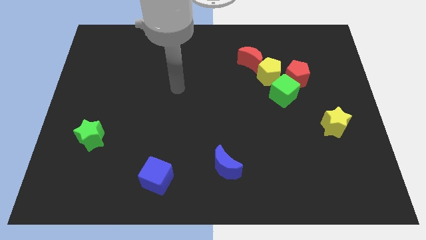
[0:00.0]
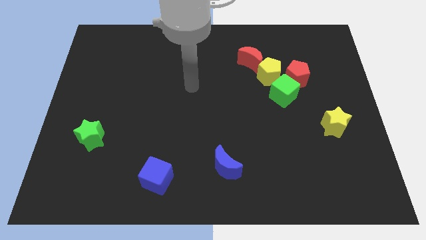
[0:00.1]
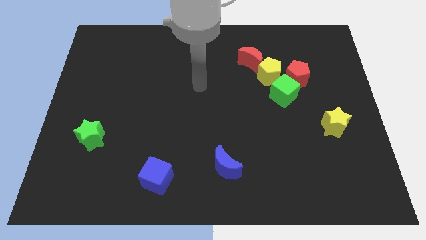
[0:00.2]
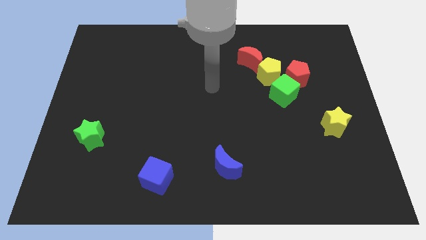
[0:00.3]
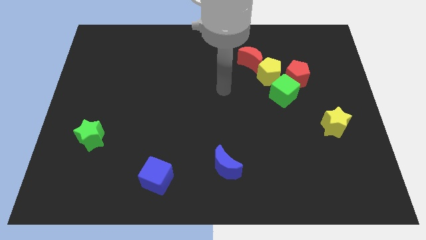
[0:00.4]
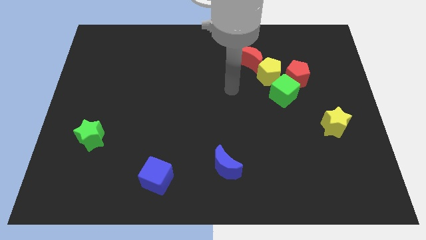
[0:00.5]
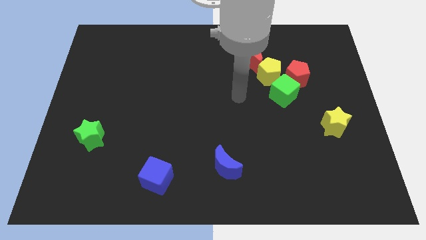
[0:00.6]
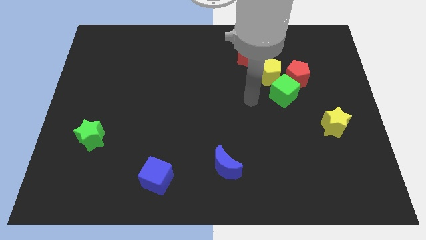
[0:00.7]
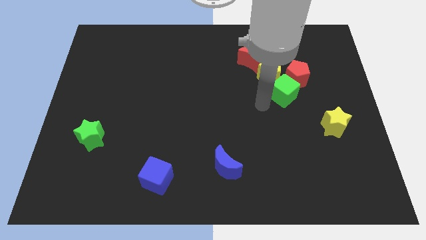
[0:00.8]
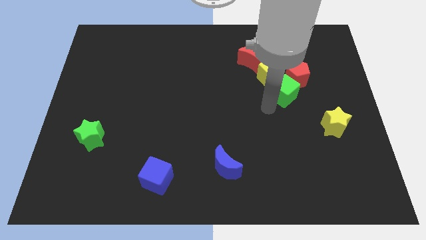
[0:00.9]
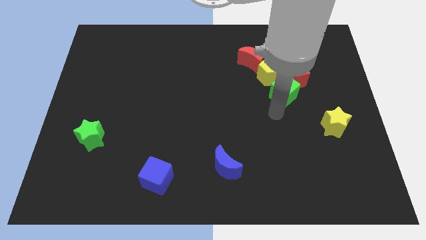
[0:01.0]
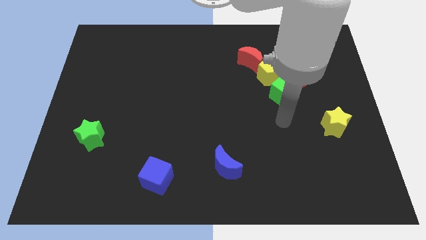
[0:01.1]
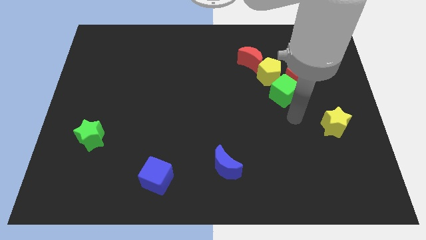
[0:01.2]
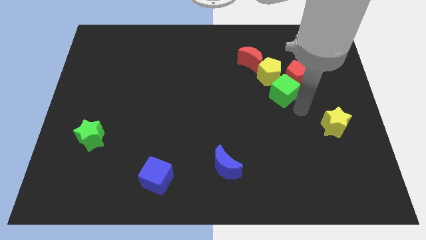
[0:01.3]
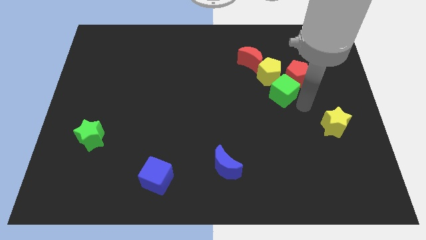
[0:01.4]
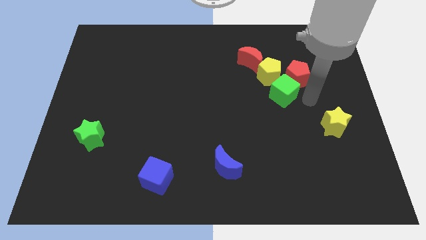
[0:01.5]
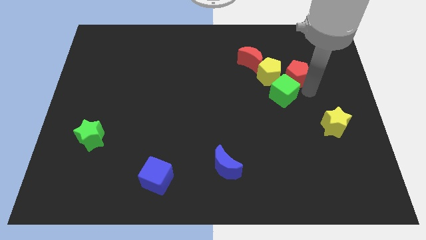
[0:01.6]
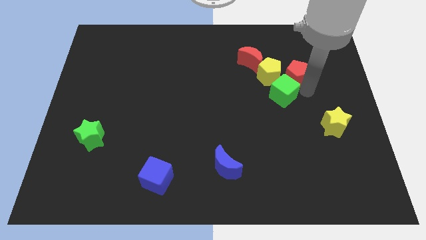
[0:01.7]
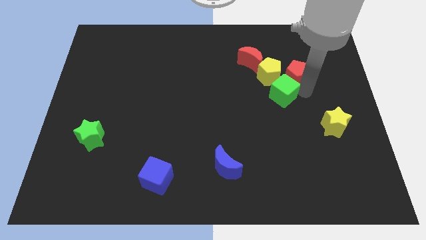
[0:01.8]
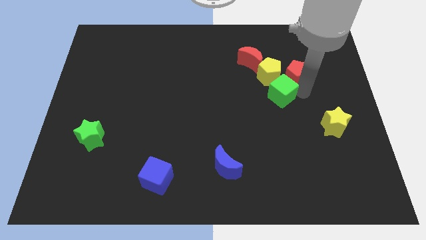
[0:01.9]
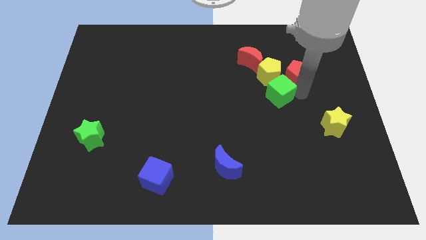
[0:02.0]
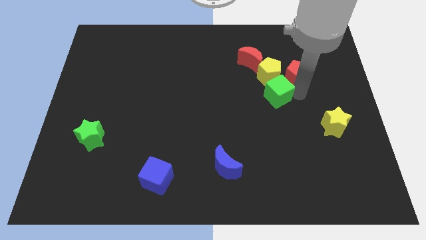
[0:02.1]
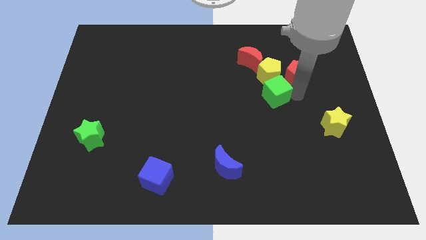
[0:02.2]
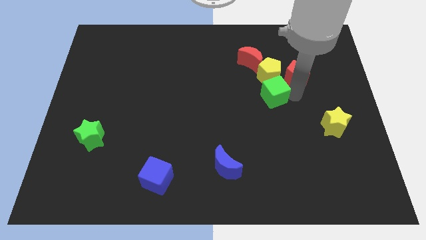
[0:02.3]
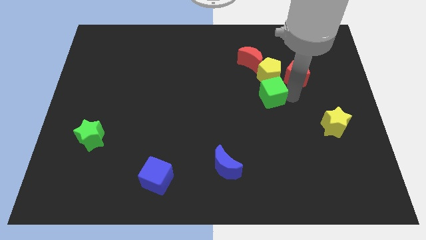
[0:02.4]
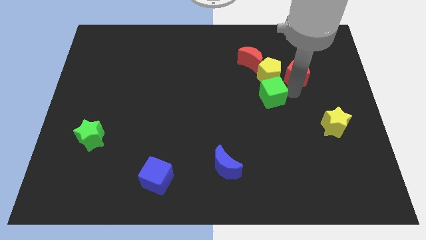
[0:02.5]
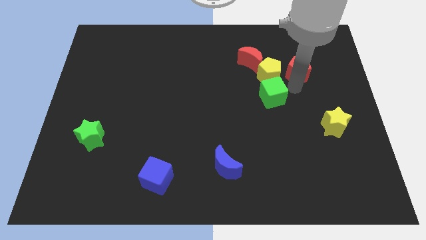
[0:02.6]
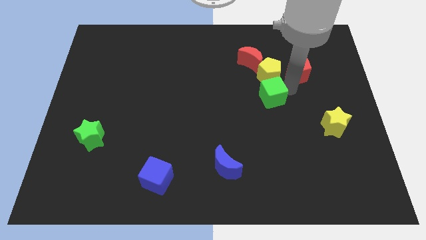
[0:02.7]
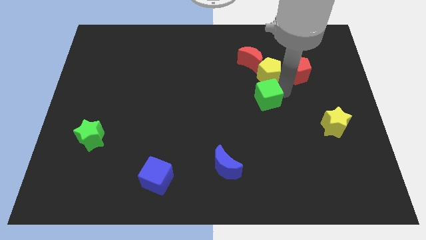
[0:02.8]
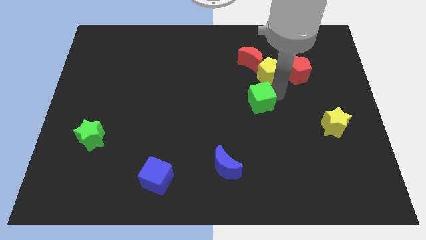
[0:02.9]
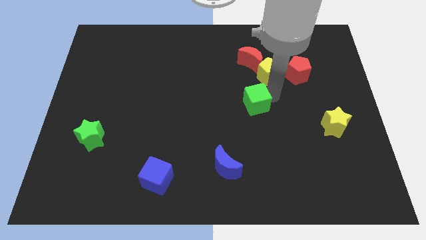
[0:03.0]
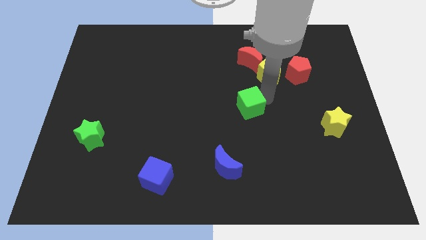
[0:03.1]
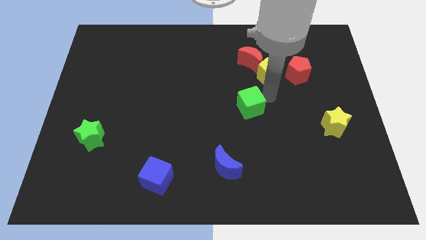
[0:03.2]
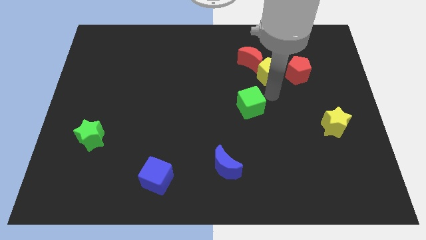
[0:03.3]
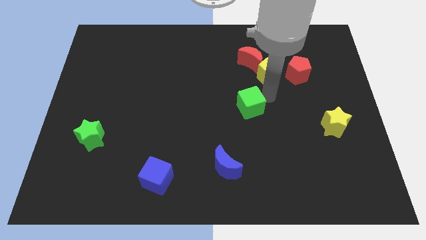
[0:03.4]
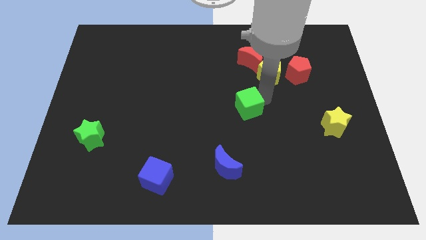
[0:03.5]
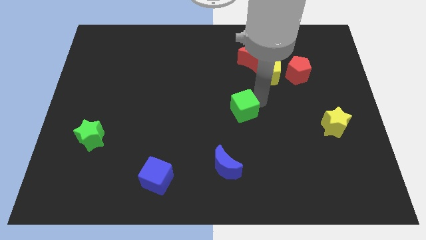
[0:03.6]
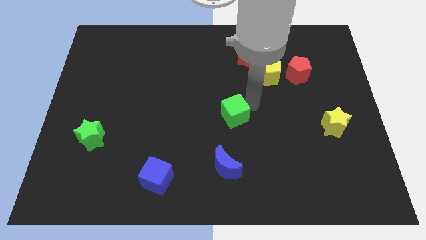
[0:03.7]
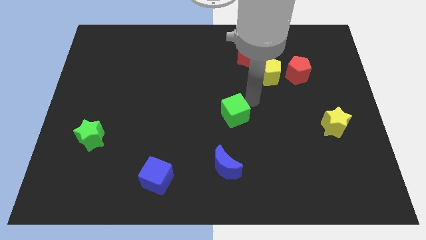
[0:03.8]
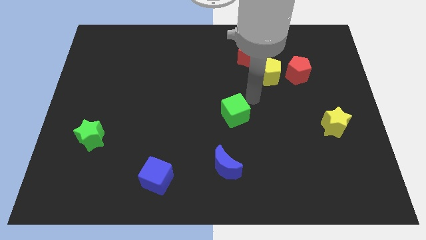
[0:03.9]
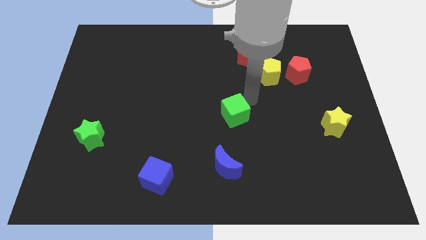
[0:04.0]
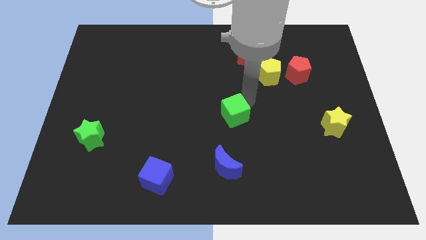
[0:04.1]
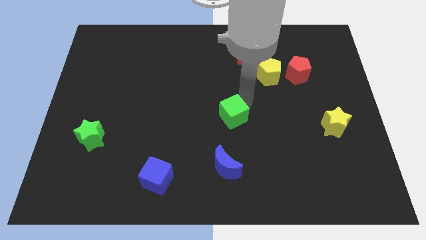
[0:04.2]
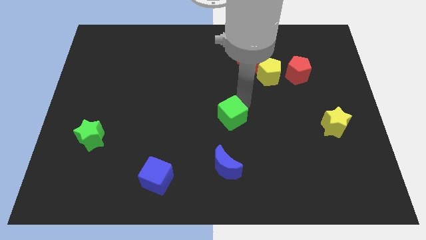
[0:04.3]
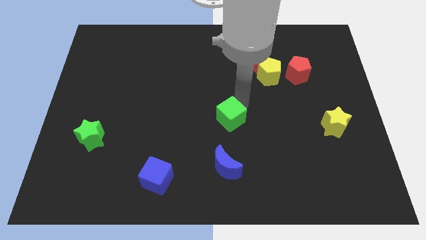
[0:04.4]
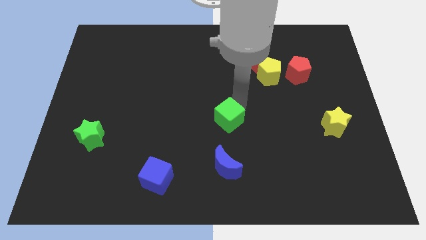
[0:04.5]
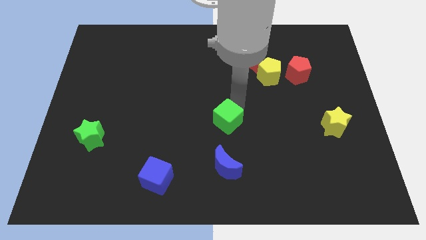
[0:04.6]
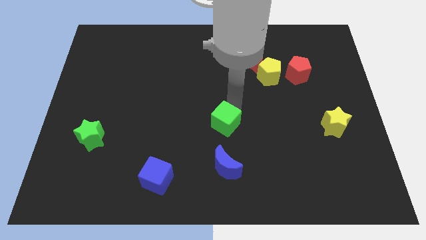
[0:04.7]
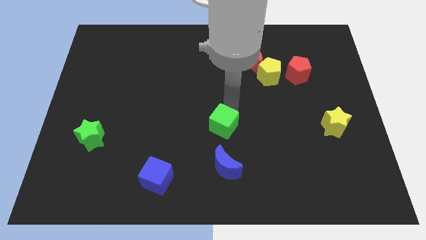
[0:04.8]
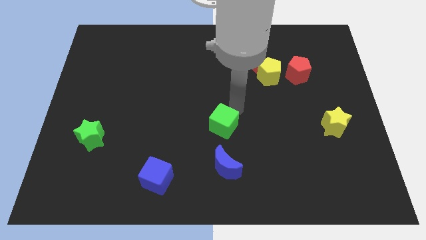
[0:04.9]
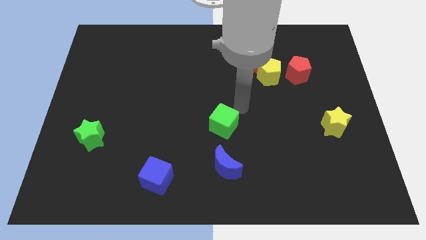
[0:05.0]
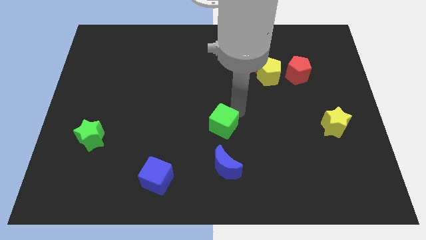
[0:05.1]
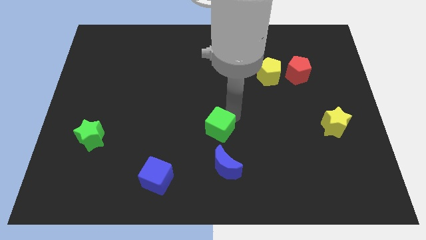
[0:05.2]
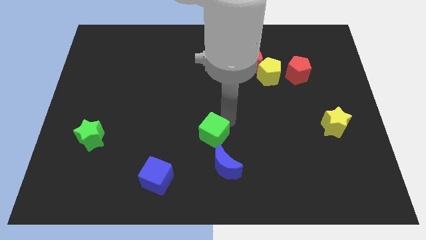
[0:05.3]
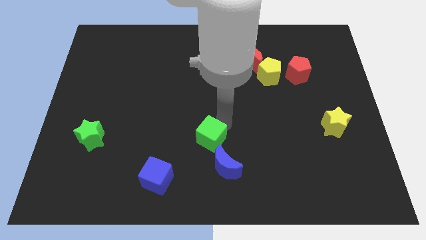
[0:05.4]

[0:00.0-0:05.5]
slide the green cube down and to the left

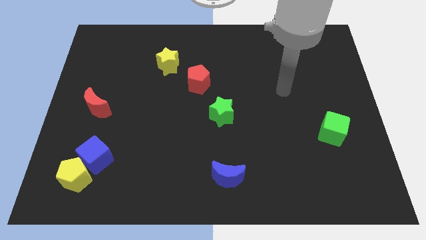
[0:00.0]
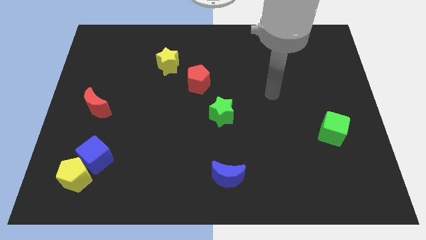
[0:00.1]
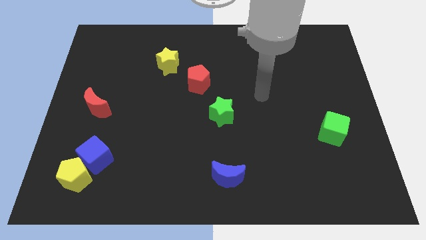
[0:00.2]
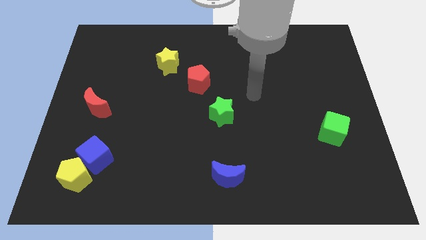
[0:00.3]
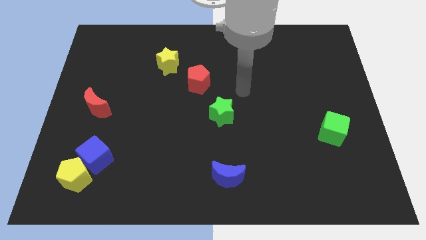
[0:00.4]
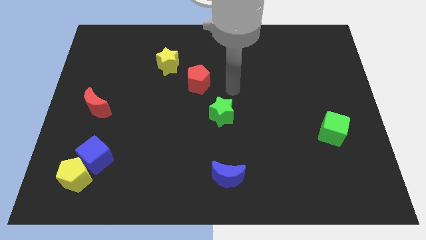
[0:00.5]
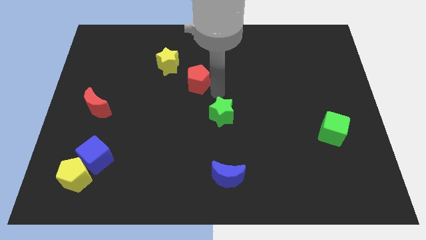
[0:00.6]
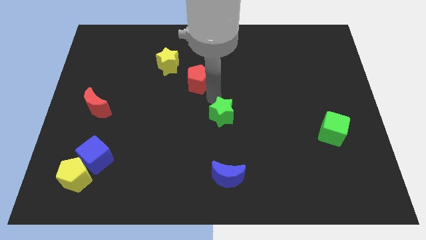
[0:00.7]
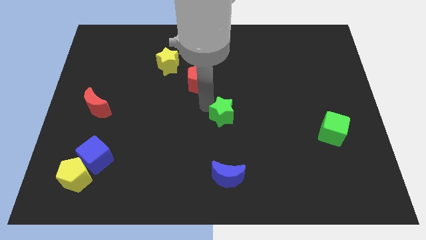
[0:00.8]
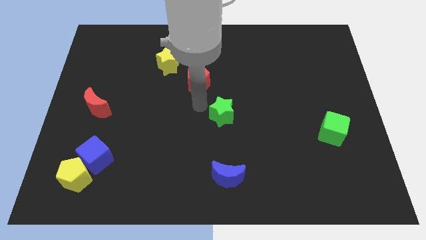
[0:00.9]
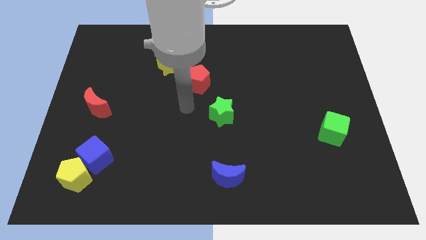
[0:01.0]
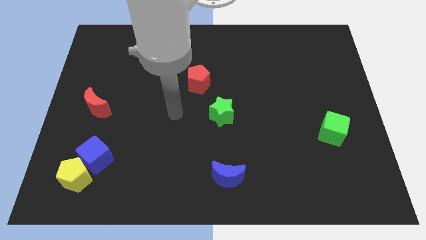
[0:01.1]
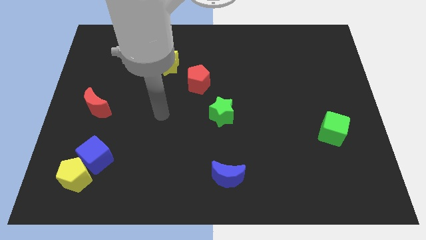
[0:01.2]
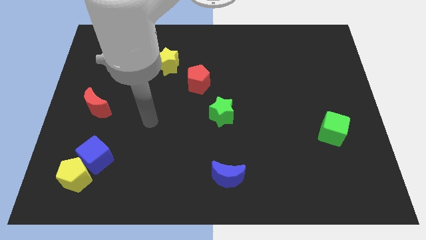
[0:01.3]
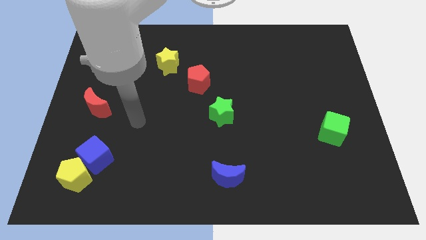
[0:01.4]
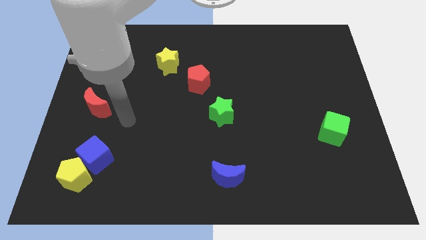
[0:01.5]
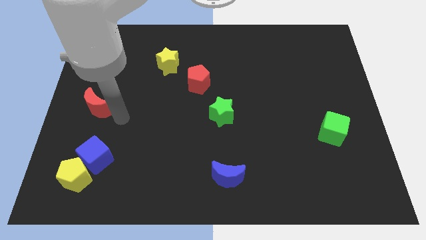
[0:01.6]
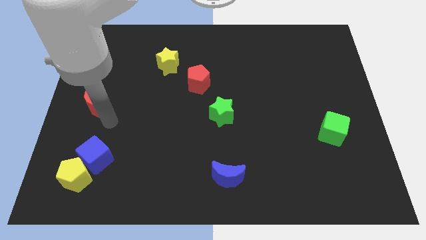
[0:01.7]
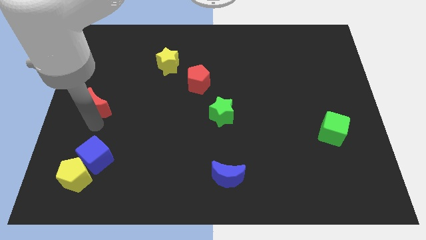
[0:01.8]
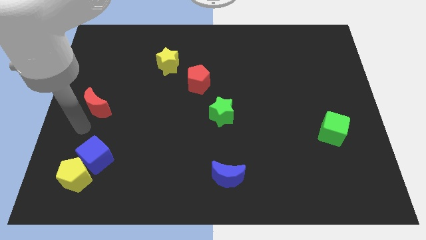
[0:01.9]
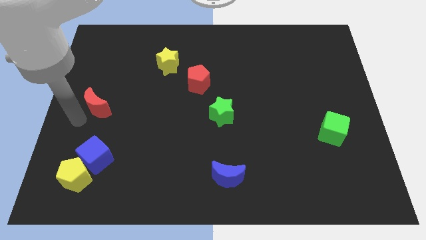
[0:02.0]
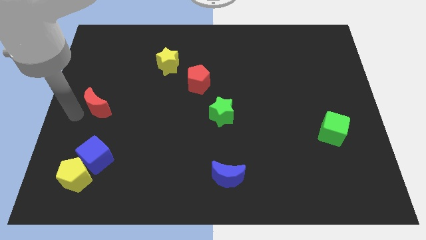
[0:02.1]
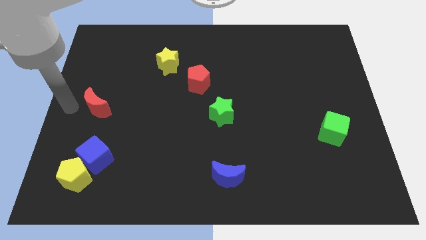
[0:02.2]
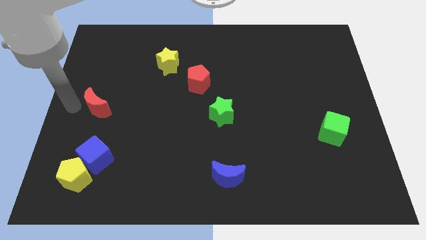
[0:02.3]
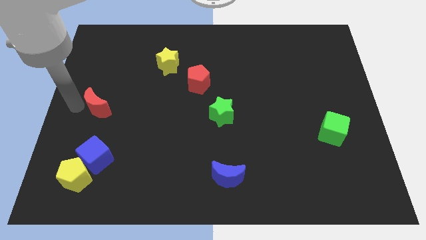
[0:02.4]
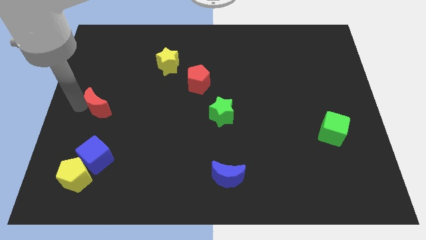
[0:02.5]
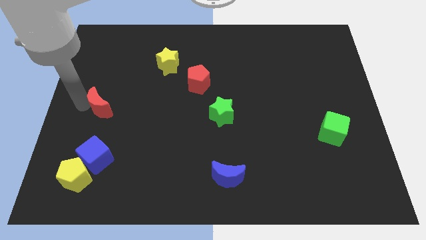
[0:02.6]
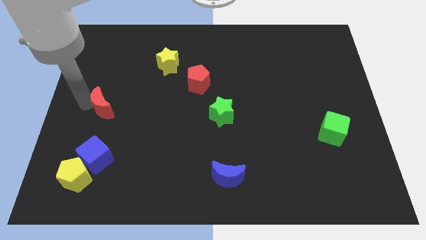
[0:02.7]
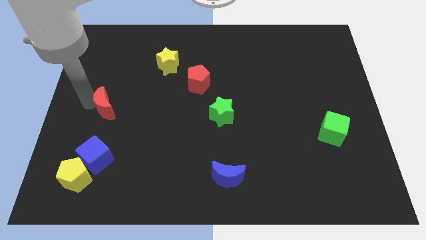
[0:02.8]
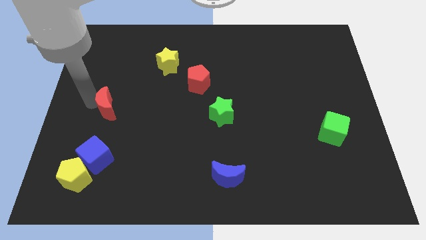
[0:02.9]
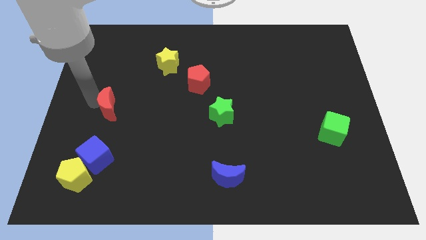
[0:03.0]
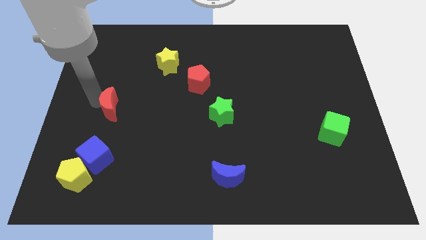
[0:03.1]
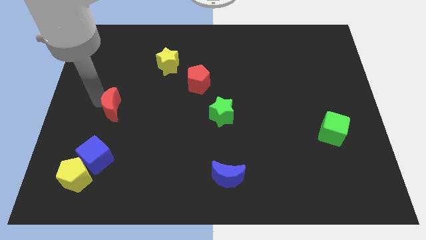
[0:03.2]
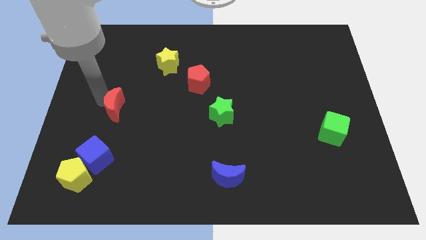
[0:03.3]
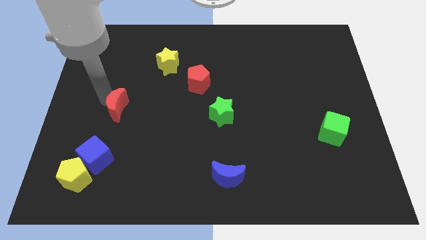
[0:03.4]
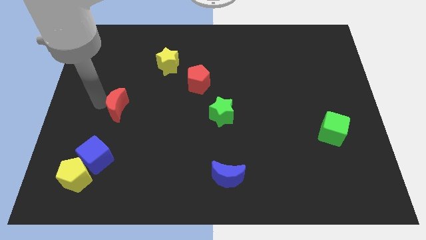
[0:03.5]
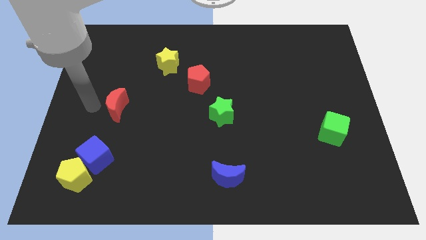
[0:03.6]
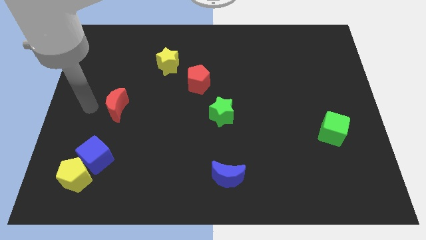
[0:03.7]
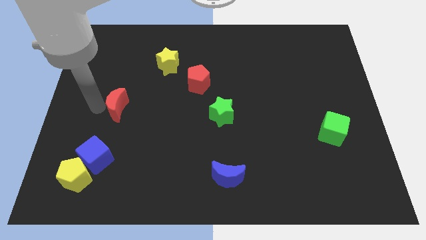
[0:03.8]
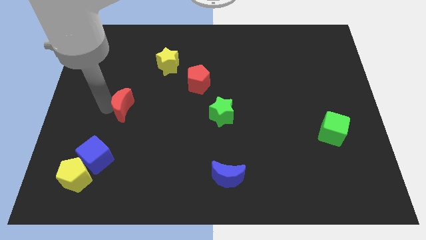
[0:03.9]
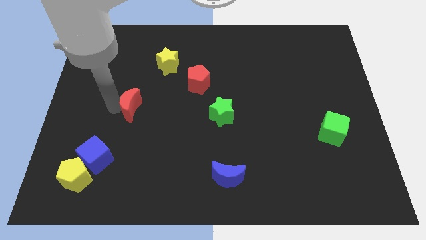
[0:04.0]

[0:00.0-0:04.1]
slide the red moon to the right somewhat
